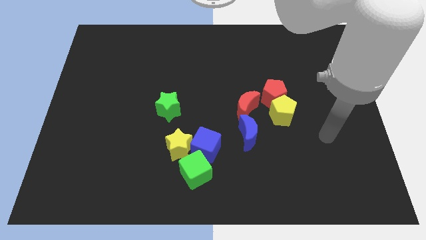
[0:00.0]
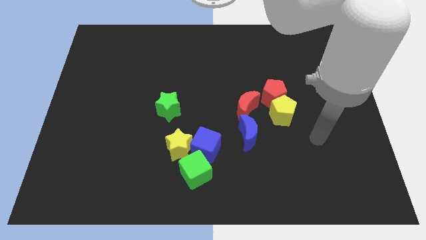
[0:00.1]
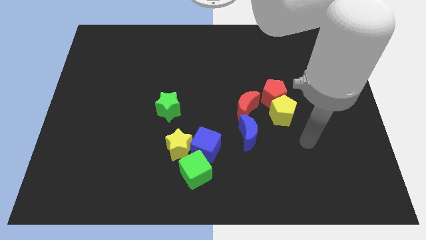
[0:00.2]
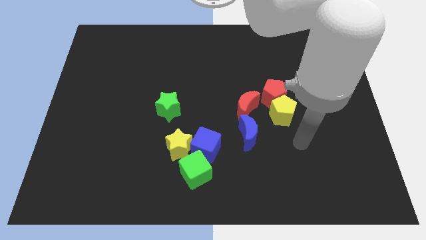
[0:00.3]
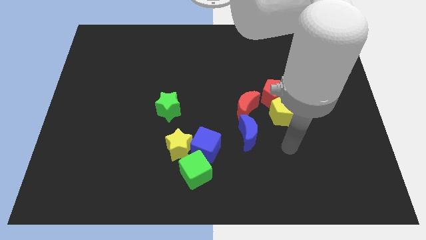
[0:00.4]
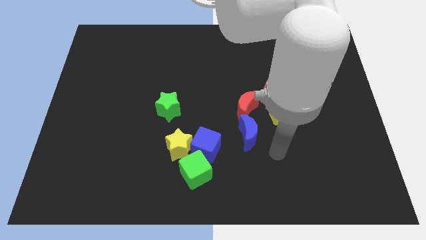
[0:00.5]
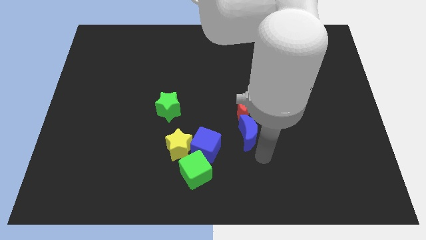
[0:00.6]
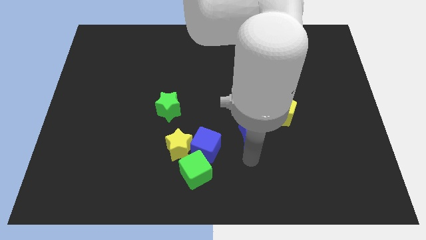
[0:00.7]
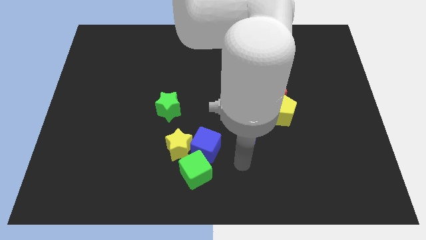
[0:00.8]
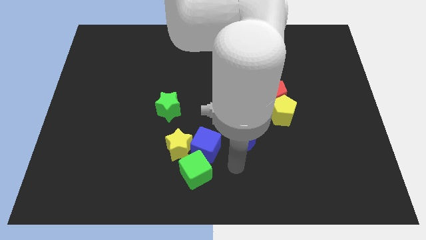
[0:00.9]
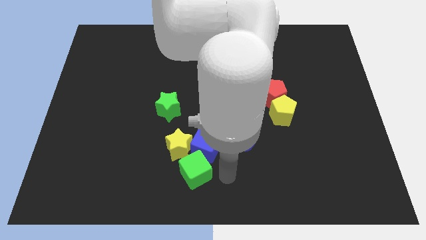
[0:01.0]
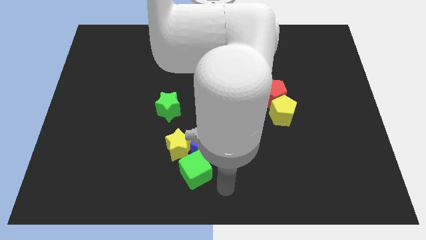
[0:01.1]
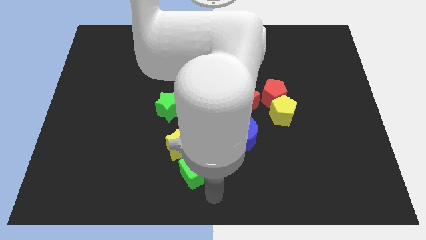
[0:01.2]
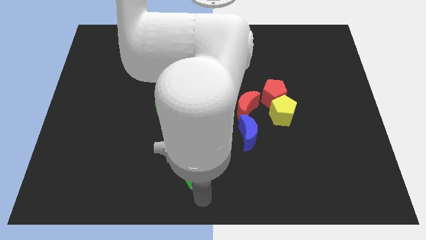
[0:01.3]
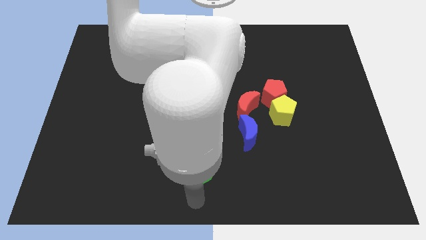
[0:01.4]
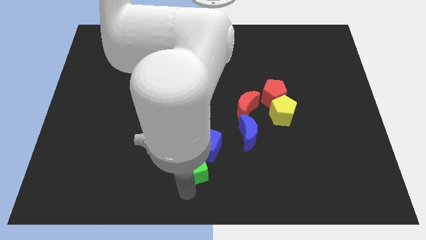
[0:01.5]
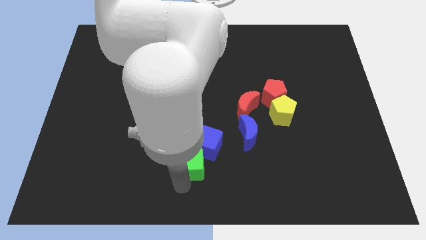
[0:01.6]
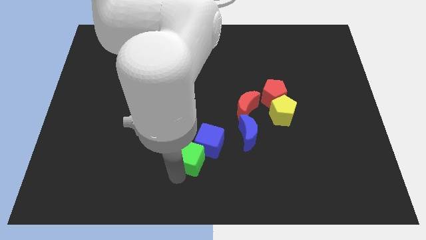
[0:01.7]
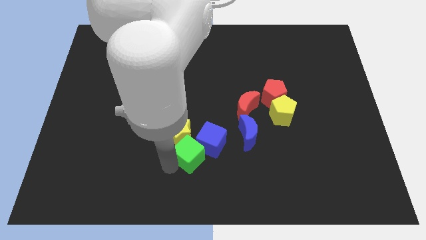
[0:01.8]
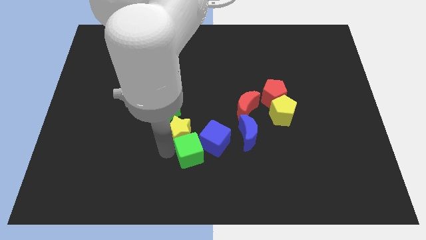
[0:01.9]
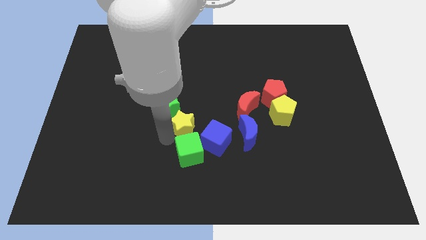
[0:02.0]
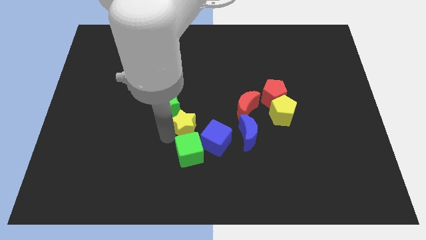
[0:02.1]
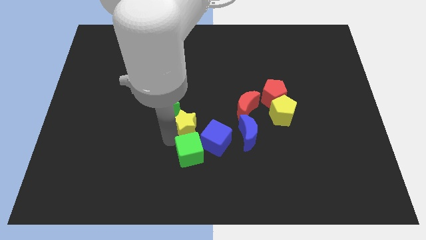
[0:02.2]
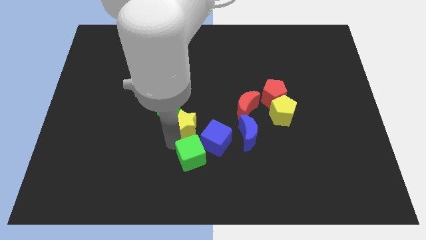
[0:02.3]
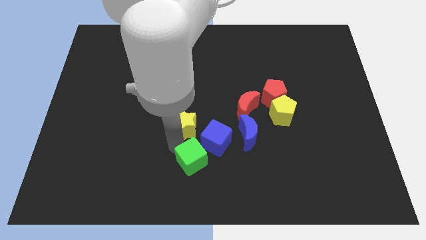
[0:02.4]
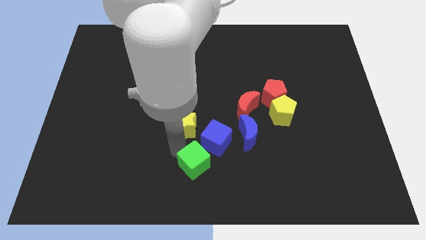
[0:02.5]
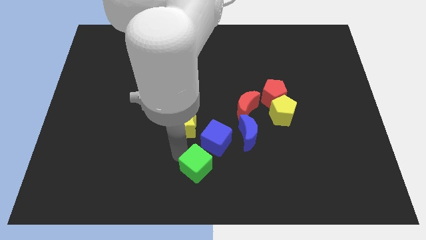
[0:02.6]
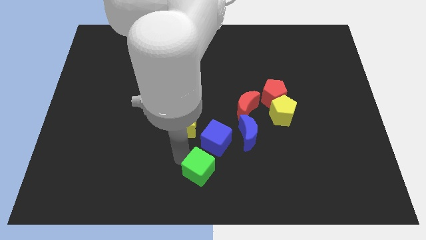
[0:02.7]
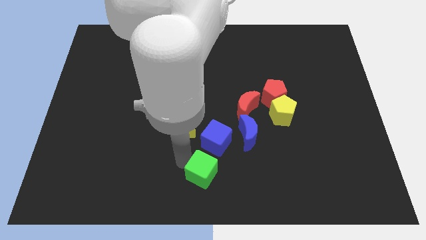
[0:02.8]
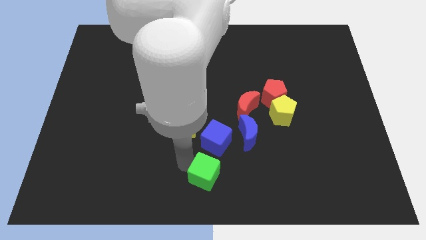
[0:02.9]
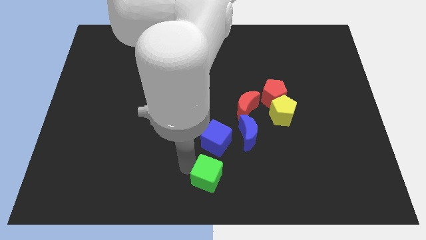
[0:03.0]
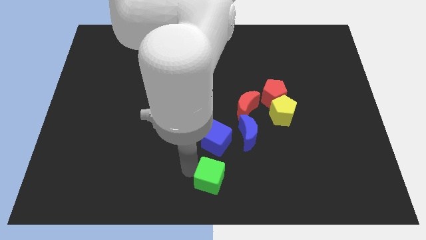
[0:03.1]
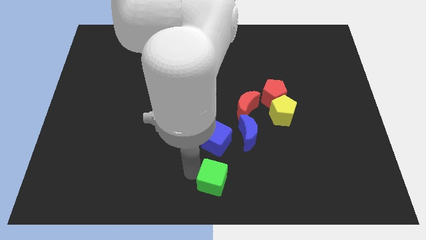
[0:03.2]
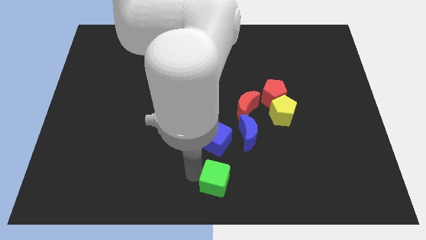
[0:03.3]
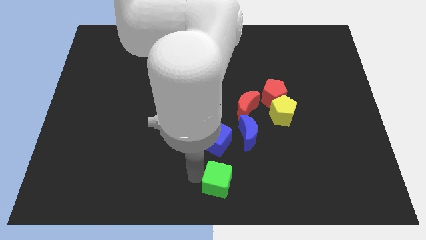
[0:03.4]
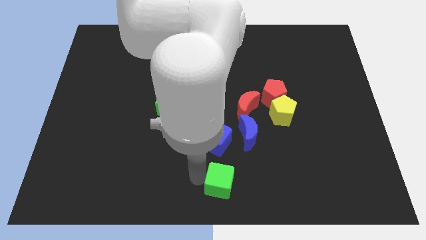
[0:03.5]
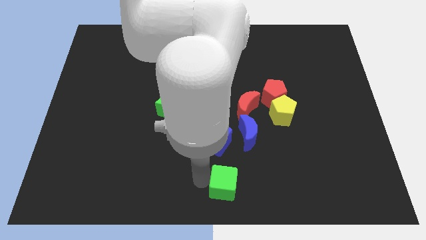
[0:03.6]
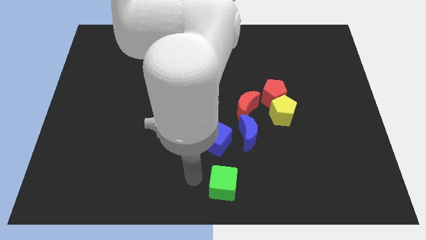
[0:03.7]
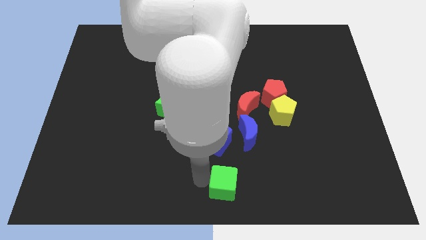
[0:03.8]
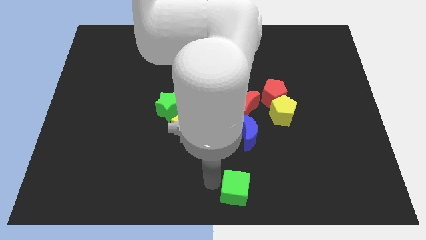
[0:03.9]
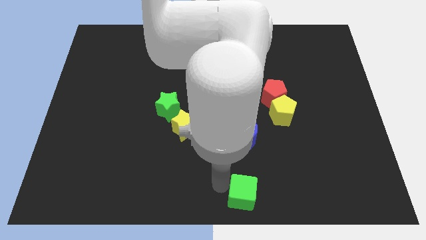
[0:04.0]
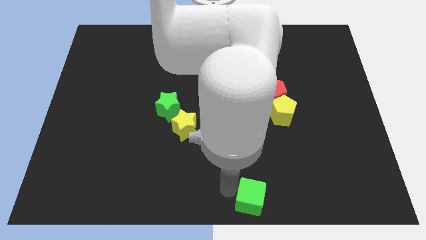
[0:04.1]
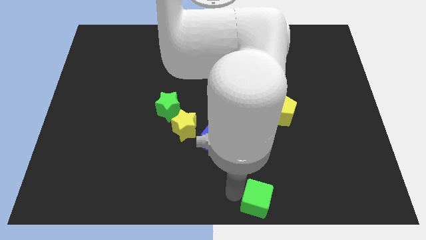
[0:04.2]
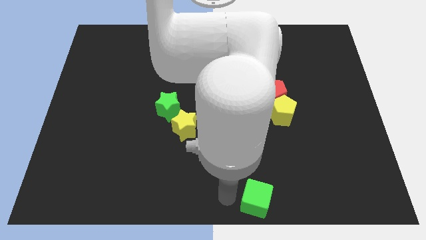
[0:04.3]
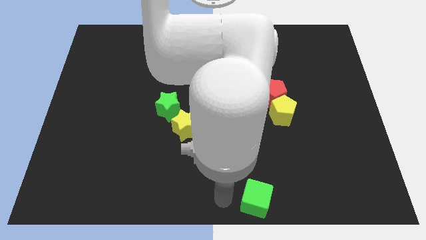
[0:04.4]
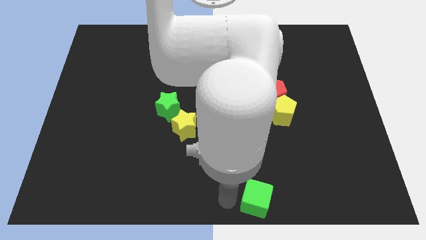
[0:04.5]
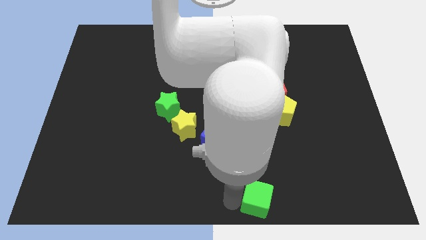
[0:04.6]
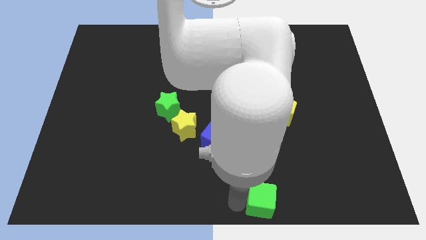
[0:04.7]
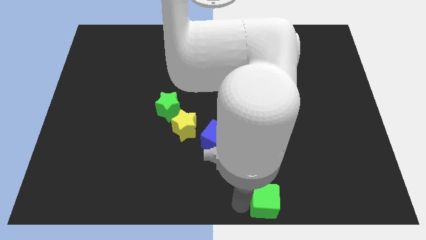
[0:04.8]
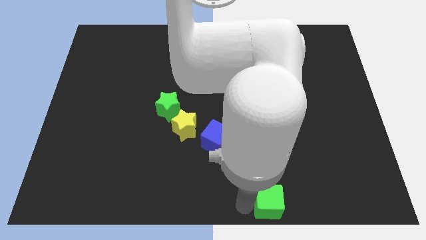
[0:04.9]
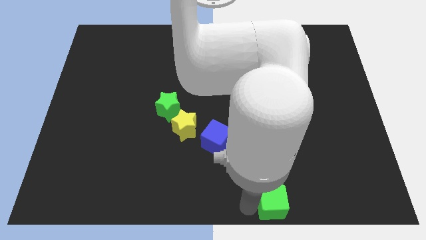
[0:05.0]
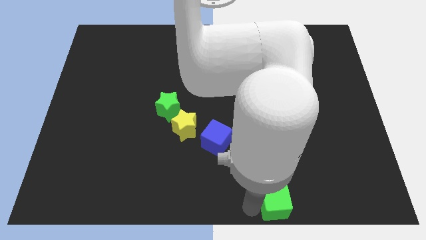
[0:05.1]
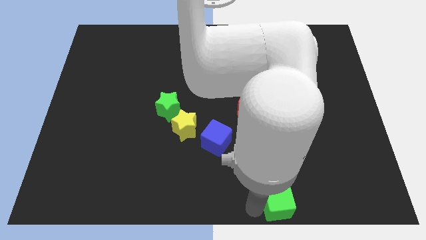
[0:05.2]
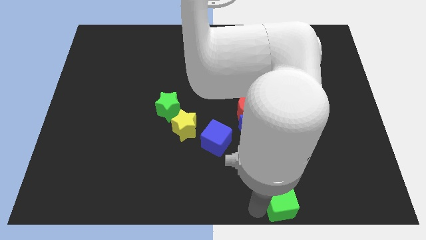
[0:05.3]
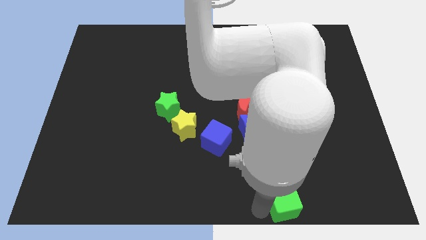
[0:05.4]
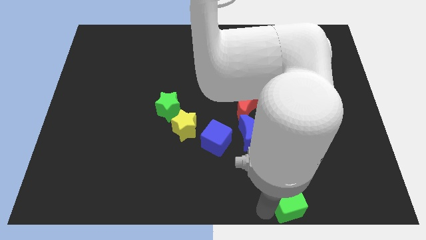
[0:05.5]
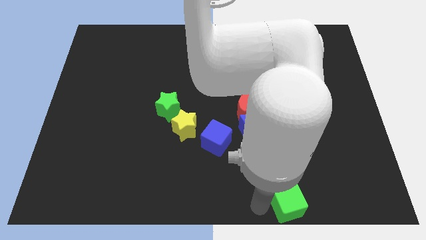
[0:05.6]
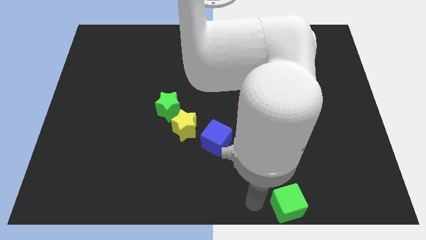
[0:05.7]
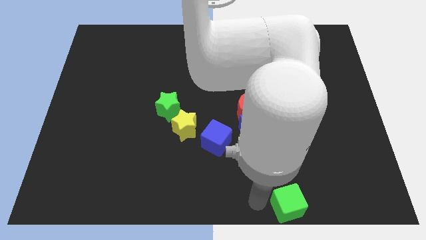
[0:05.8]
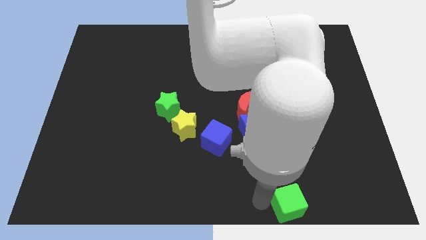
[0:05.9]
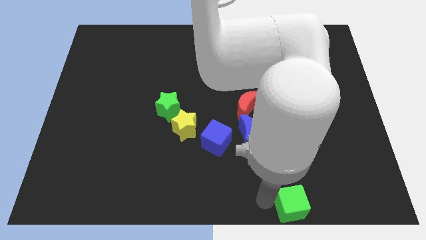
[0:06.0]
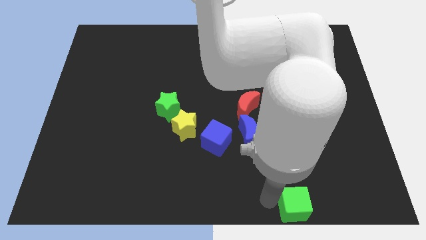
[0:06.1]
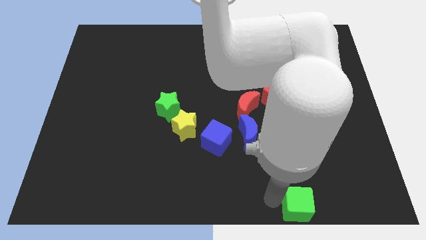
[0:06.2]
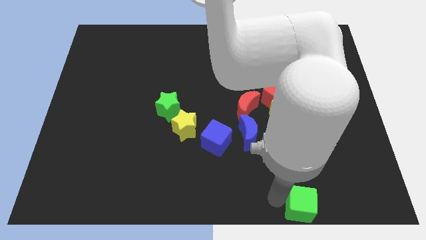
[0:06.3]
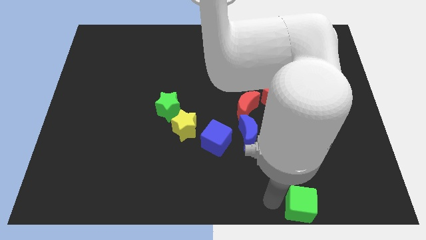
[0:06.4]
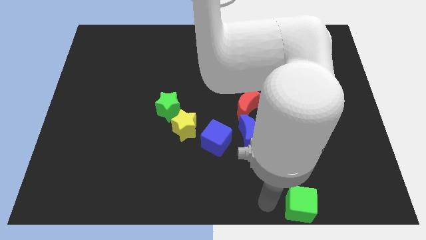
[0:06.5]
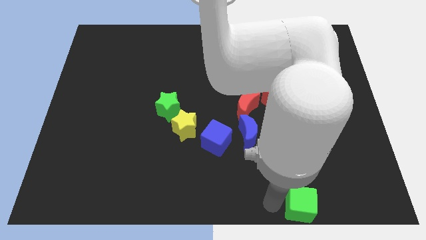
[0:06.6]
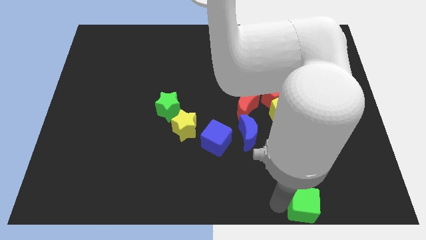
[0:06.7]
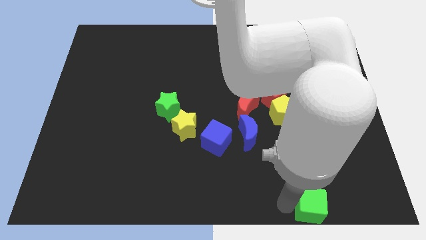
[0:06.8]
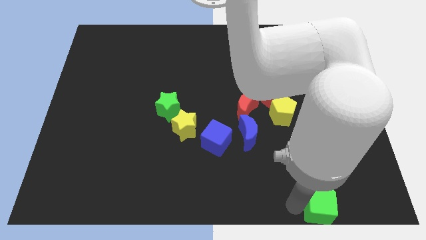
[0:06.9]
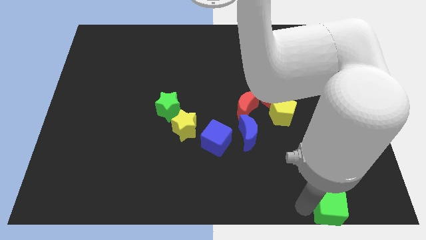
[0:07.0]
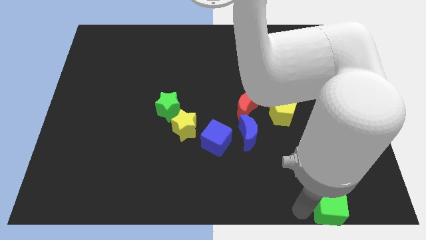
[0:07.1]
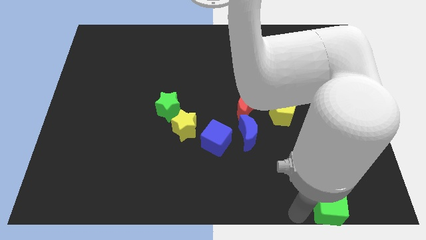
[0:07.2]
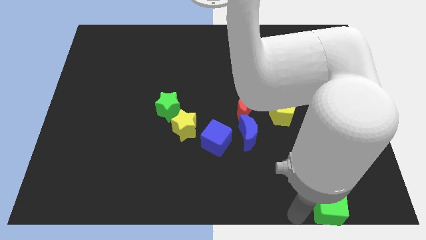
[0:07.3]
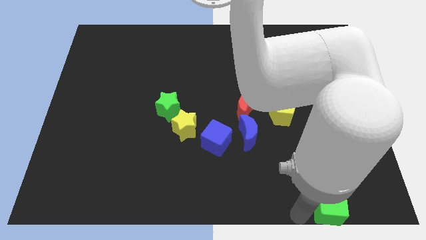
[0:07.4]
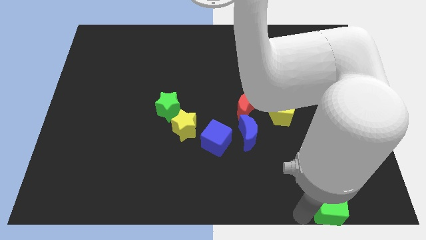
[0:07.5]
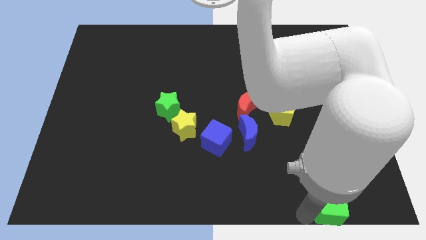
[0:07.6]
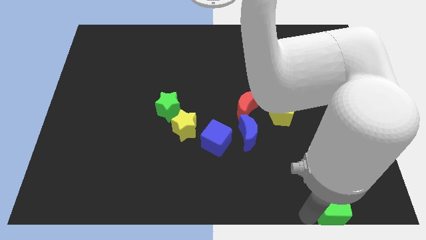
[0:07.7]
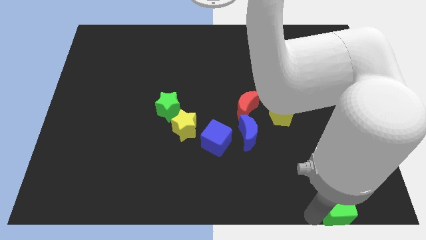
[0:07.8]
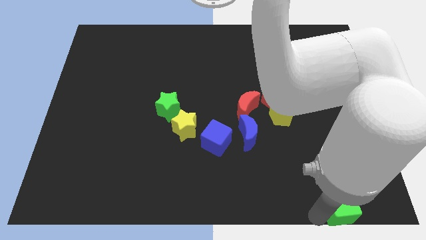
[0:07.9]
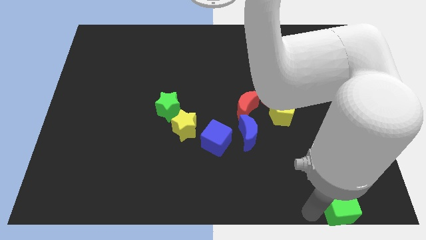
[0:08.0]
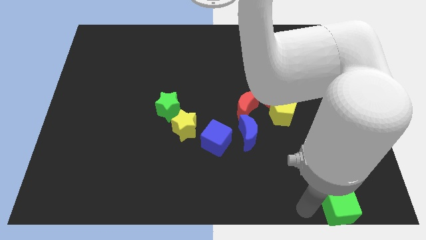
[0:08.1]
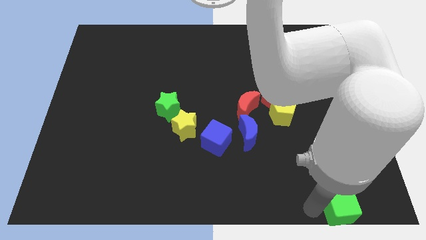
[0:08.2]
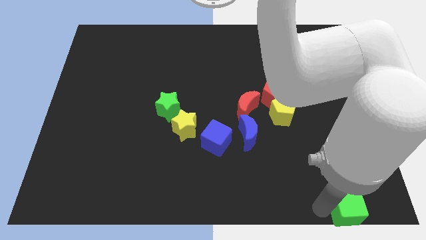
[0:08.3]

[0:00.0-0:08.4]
push the green cube to the bottom right
